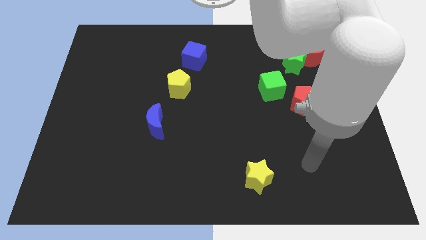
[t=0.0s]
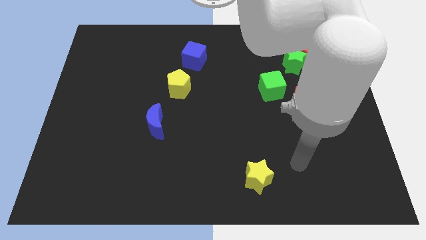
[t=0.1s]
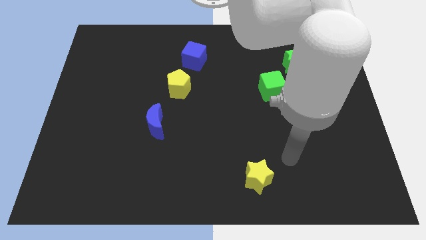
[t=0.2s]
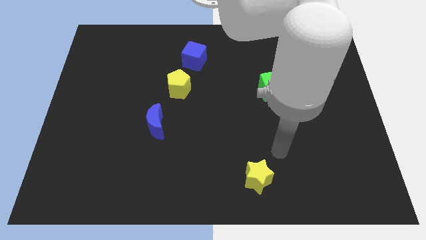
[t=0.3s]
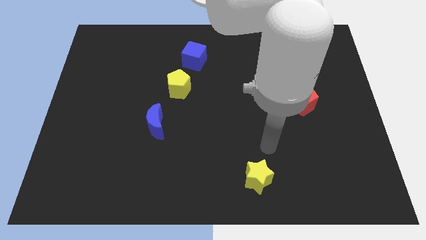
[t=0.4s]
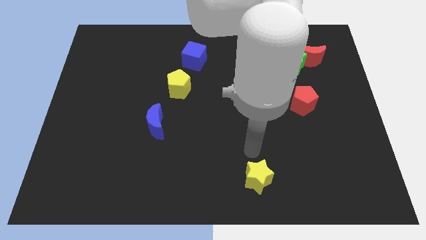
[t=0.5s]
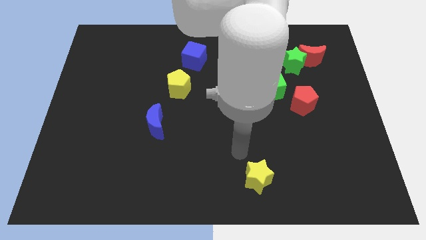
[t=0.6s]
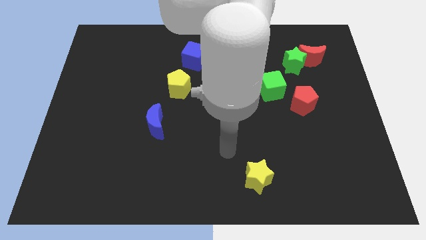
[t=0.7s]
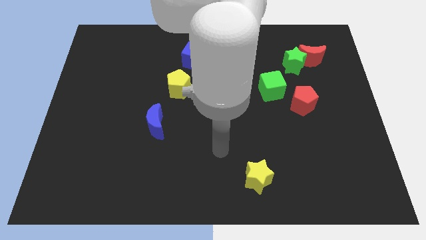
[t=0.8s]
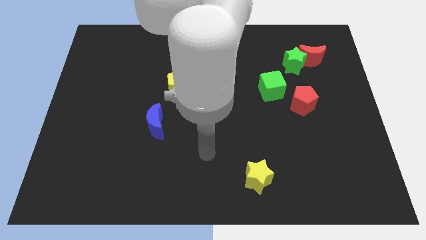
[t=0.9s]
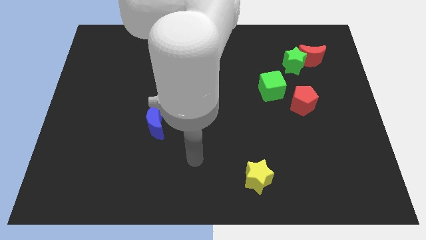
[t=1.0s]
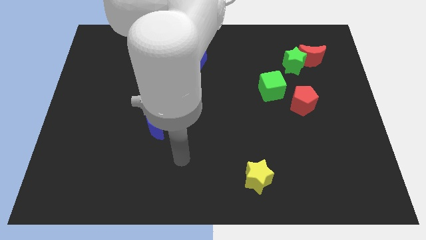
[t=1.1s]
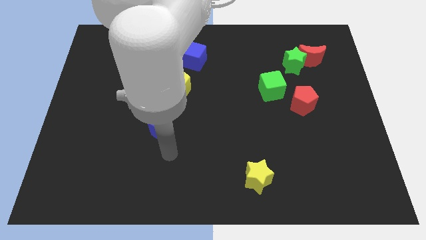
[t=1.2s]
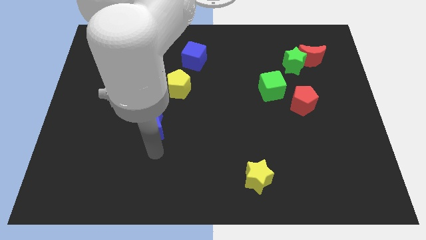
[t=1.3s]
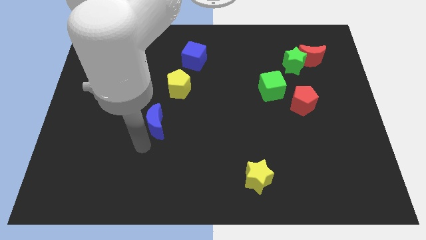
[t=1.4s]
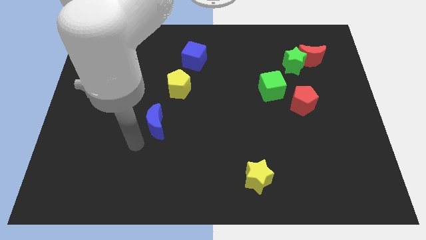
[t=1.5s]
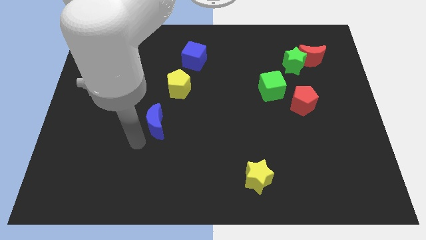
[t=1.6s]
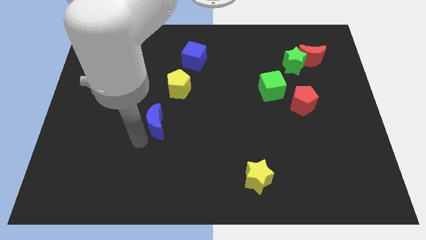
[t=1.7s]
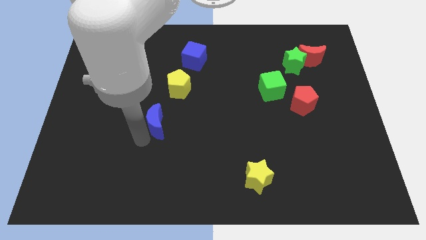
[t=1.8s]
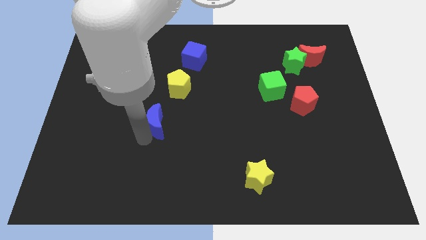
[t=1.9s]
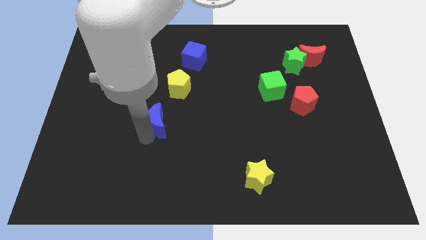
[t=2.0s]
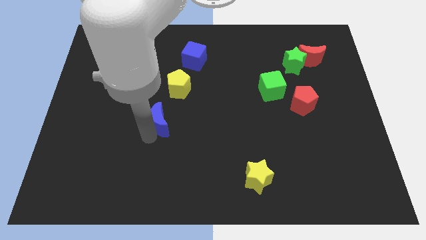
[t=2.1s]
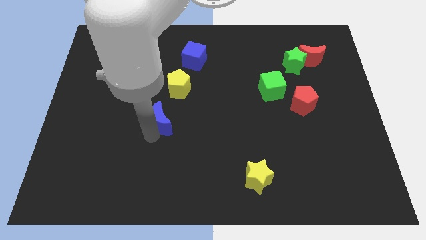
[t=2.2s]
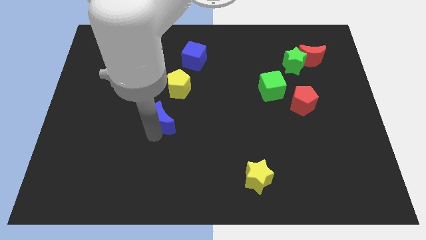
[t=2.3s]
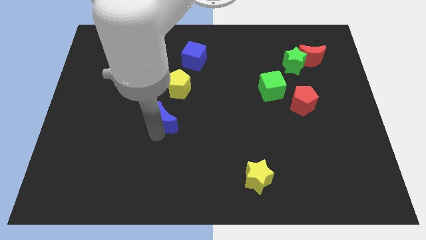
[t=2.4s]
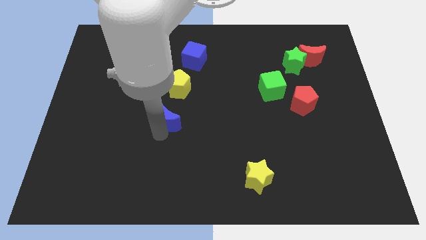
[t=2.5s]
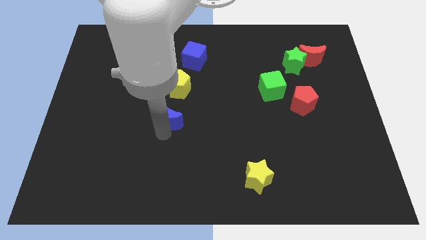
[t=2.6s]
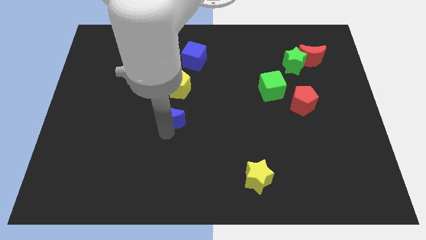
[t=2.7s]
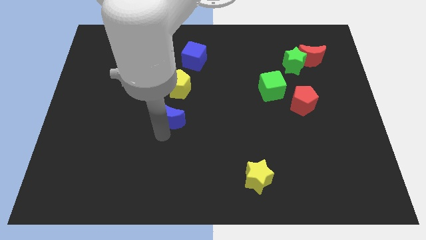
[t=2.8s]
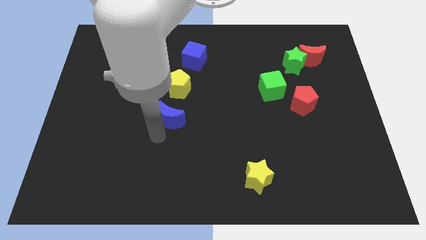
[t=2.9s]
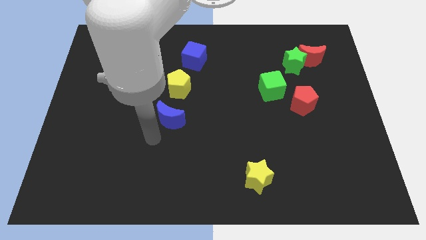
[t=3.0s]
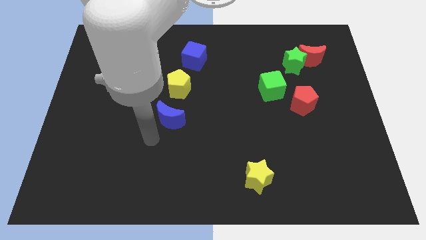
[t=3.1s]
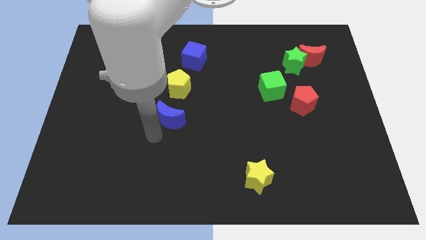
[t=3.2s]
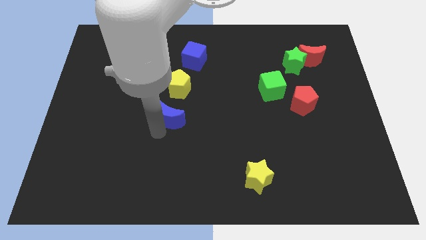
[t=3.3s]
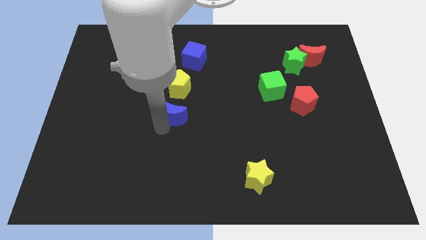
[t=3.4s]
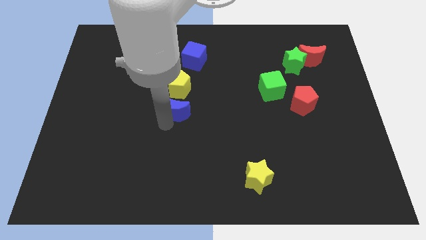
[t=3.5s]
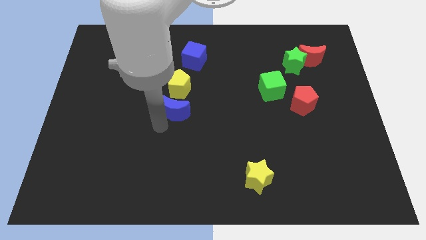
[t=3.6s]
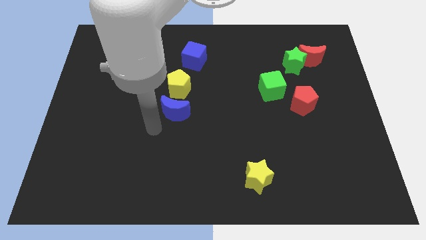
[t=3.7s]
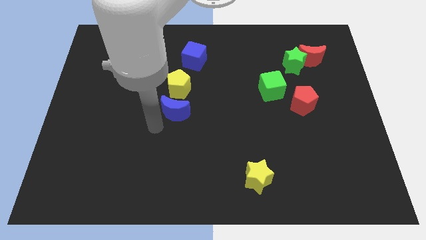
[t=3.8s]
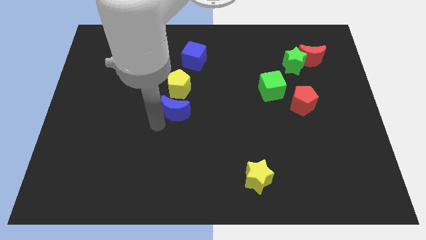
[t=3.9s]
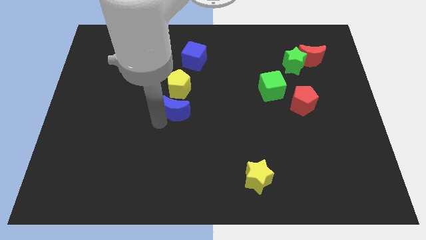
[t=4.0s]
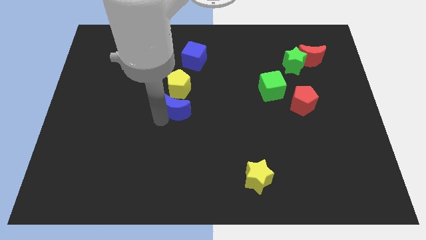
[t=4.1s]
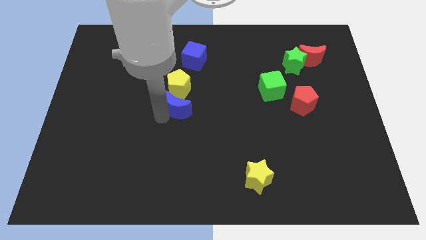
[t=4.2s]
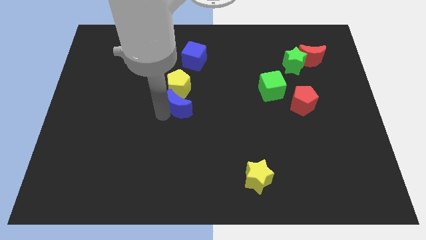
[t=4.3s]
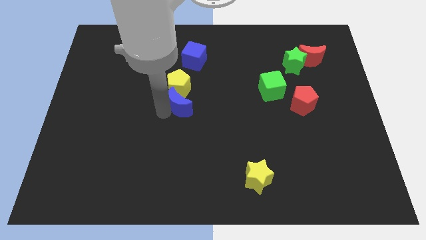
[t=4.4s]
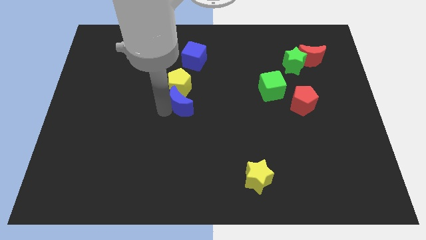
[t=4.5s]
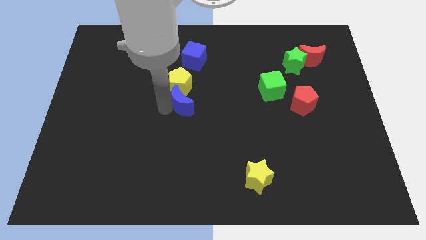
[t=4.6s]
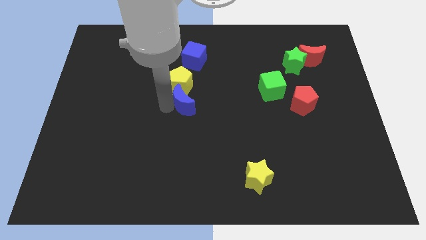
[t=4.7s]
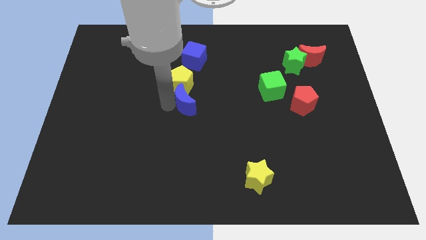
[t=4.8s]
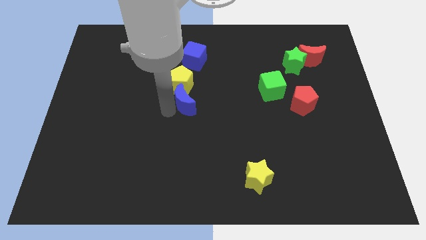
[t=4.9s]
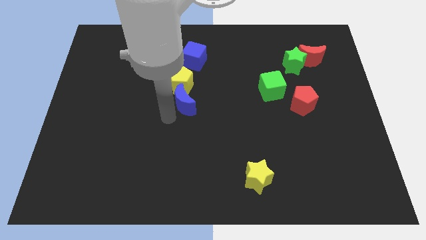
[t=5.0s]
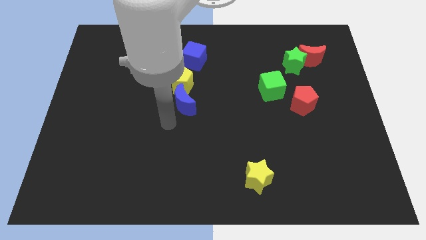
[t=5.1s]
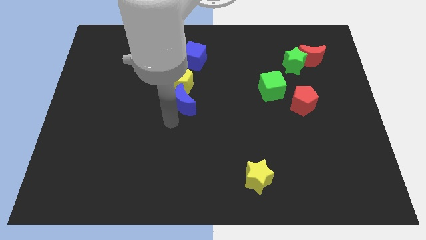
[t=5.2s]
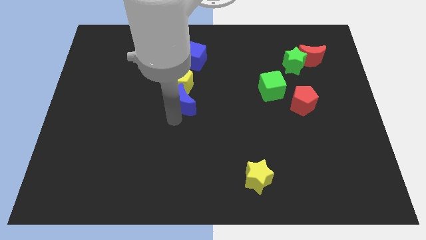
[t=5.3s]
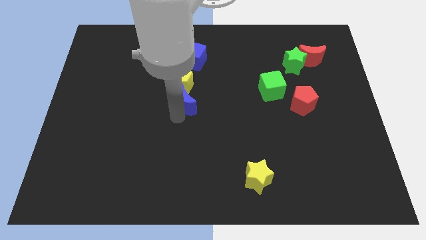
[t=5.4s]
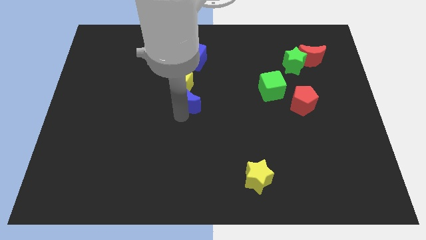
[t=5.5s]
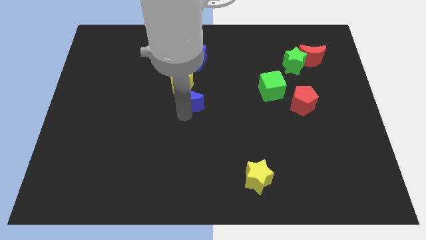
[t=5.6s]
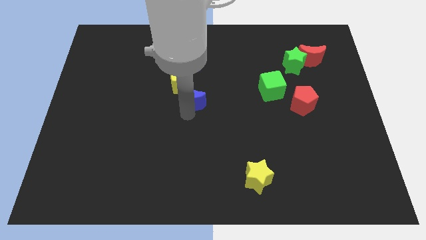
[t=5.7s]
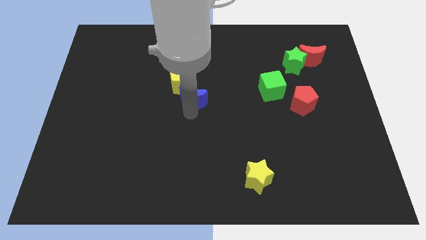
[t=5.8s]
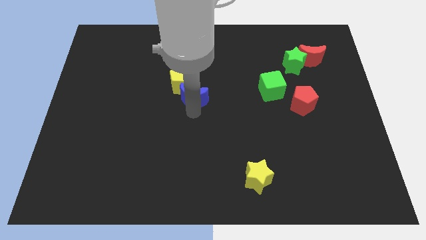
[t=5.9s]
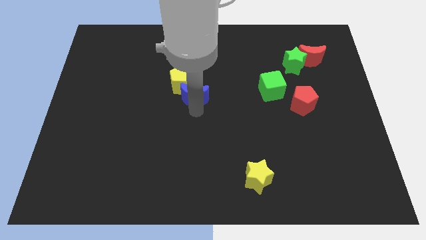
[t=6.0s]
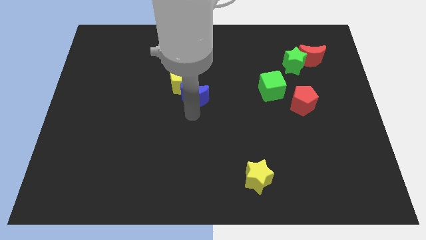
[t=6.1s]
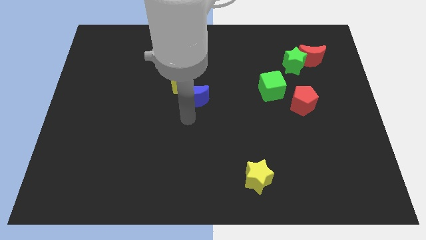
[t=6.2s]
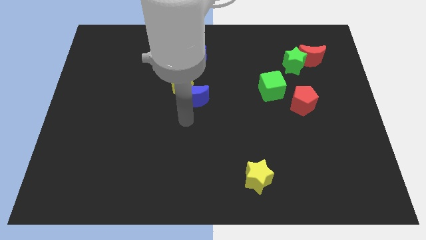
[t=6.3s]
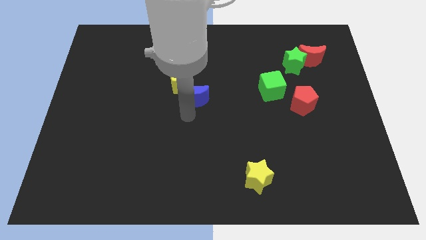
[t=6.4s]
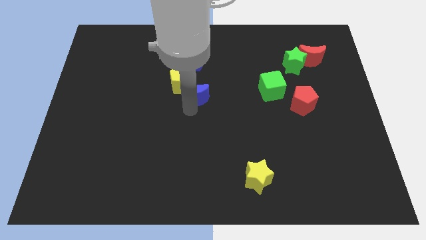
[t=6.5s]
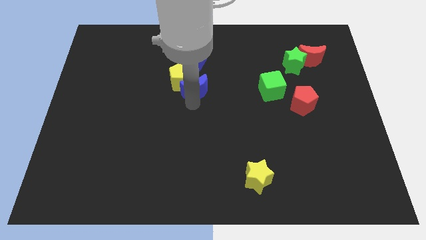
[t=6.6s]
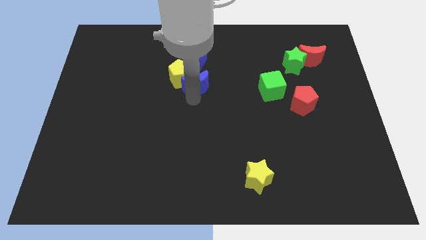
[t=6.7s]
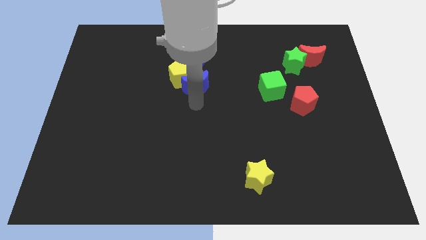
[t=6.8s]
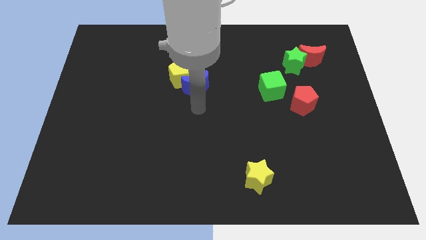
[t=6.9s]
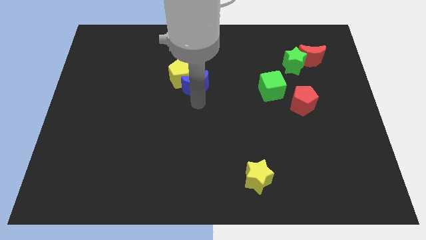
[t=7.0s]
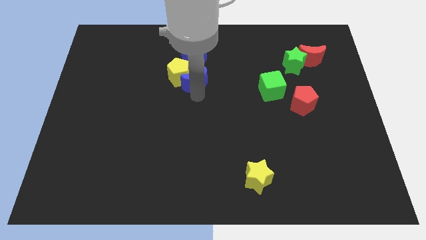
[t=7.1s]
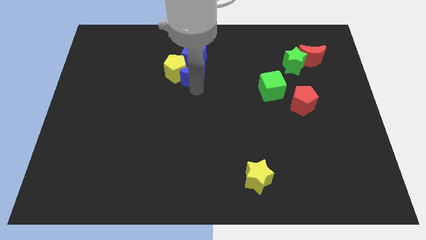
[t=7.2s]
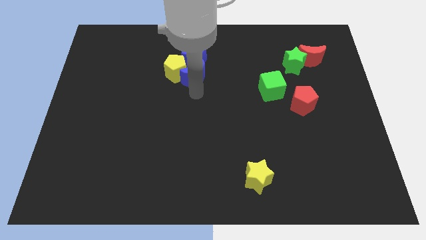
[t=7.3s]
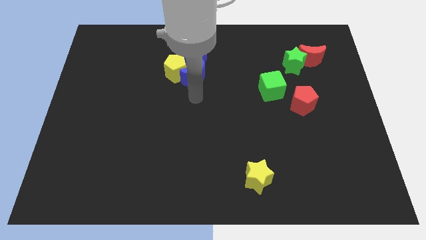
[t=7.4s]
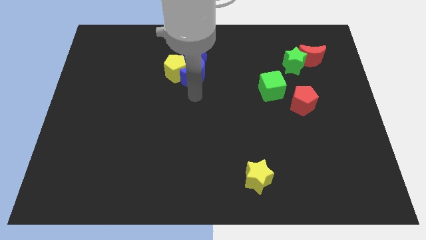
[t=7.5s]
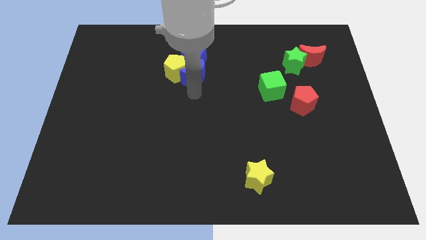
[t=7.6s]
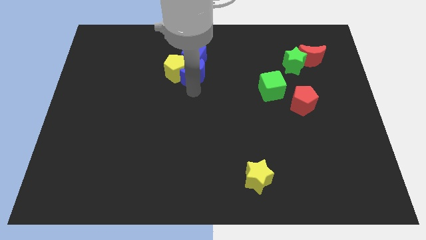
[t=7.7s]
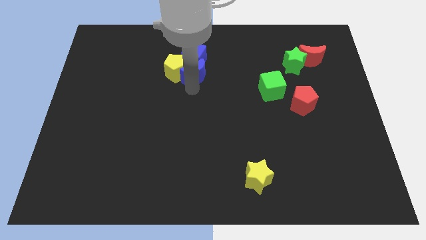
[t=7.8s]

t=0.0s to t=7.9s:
move the blue moon next to the blue cube
